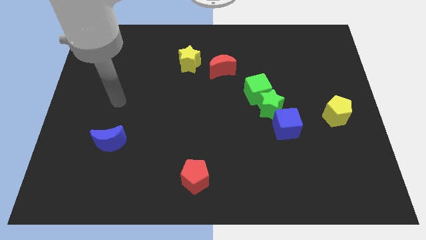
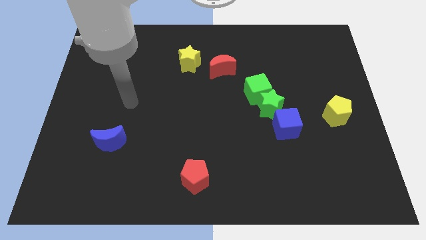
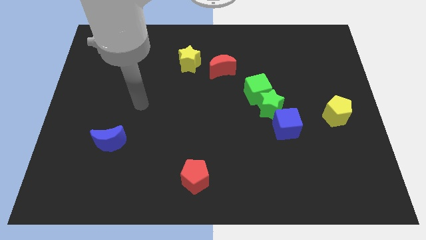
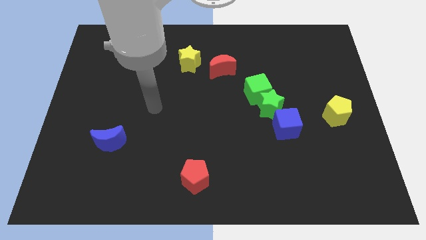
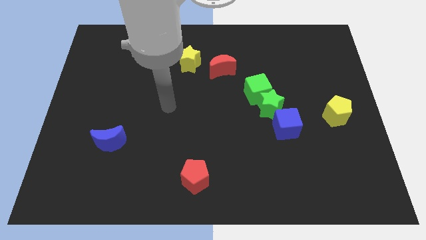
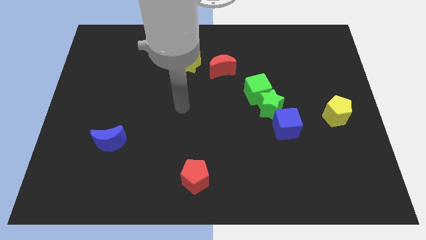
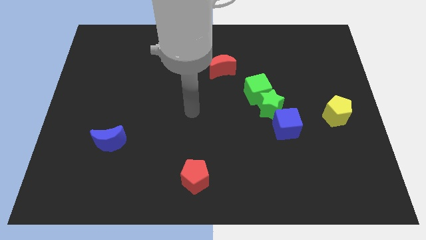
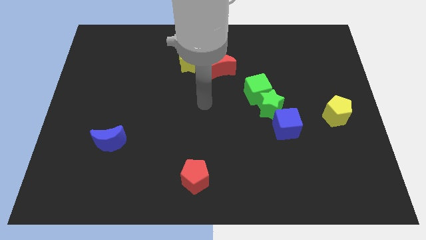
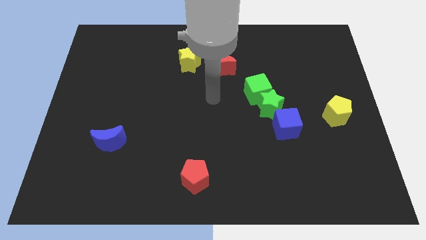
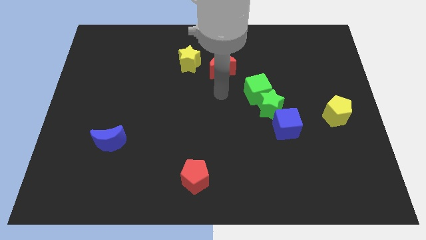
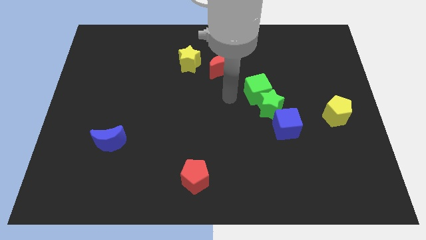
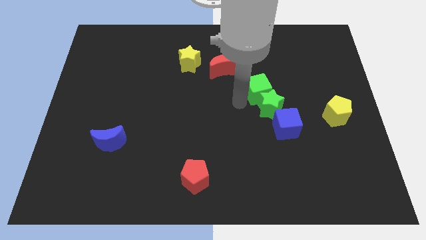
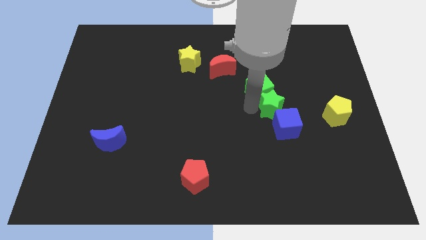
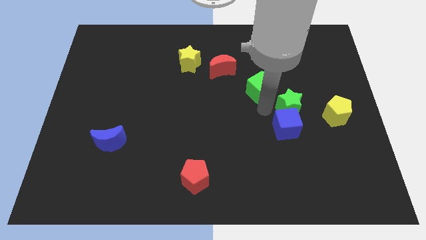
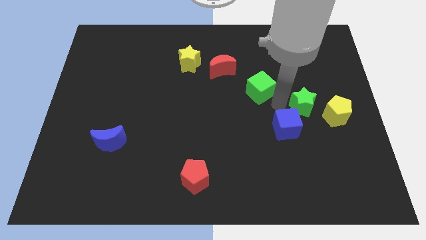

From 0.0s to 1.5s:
pull the green cube apart from the green star

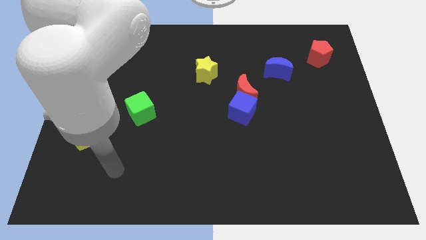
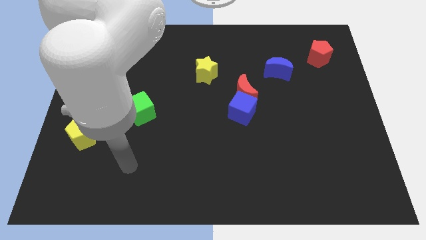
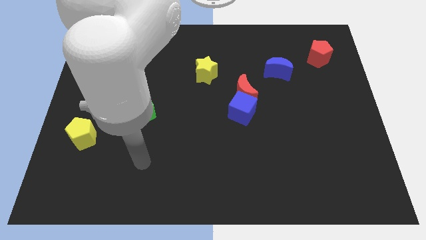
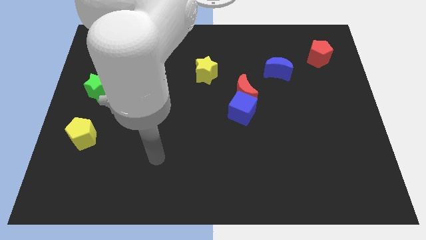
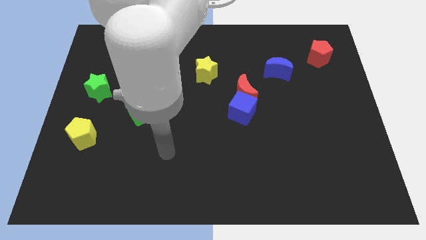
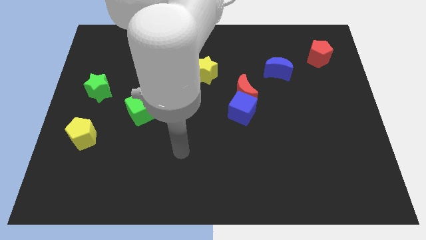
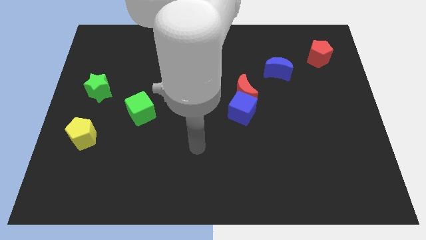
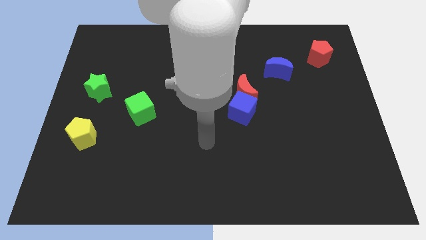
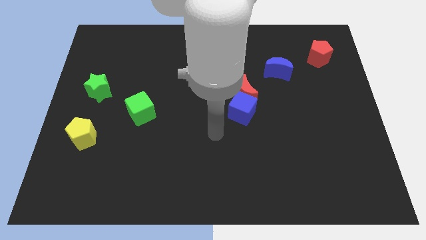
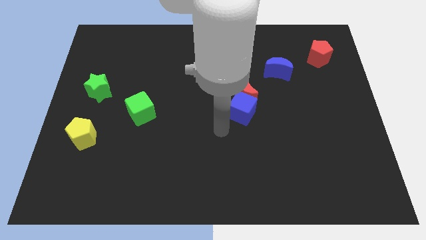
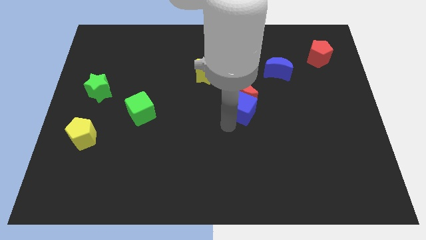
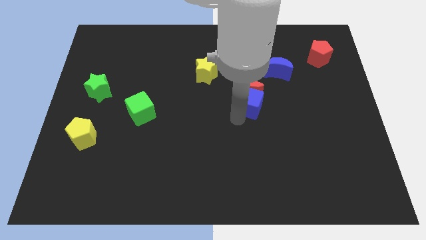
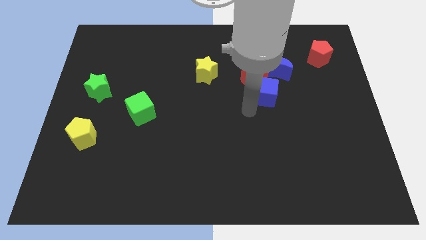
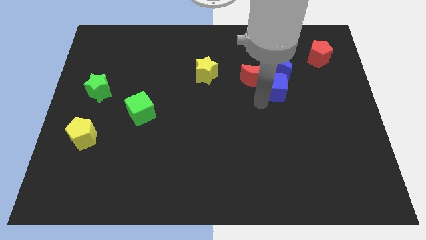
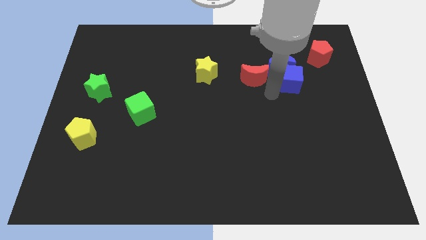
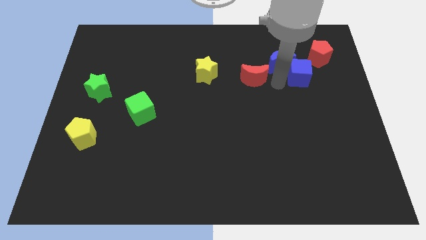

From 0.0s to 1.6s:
move the red moon away from the blue cube

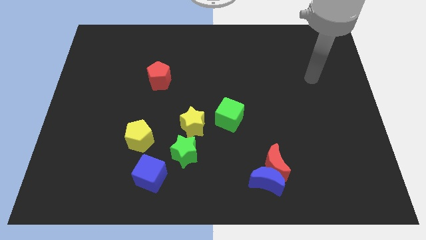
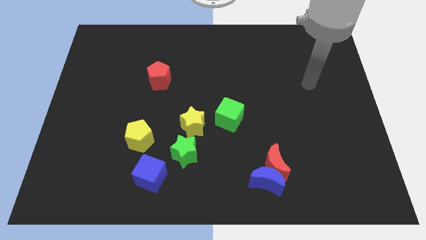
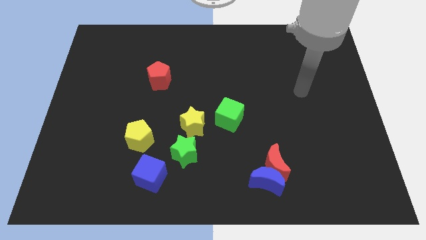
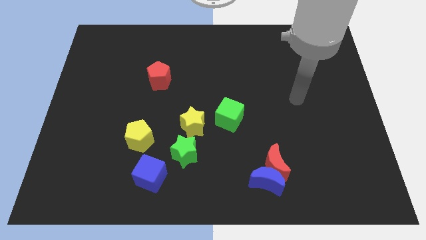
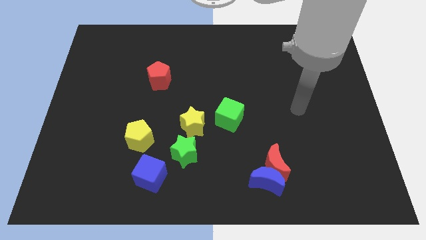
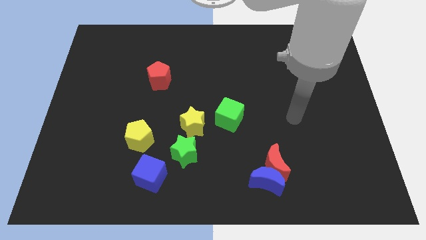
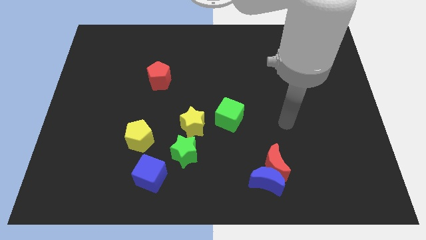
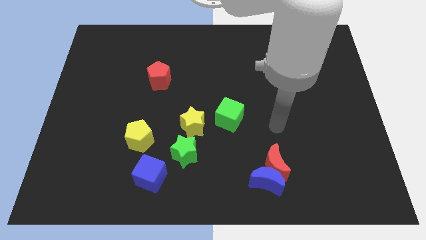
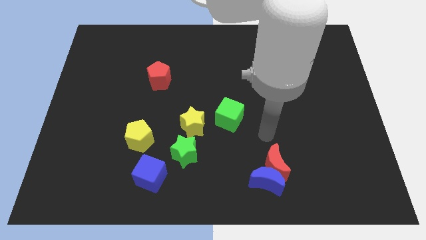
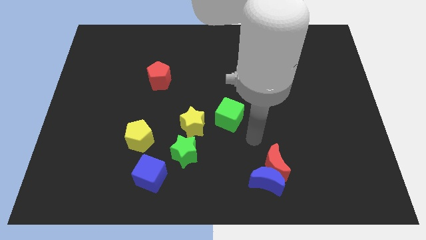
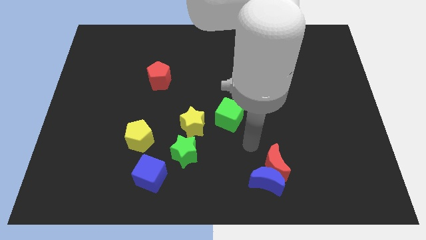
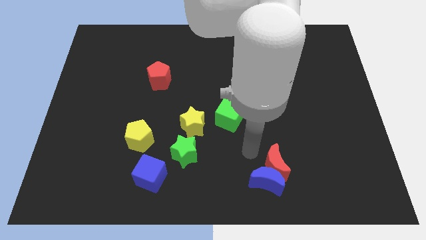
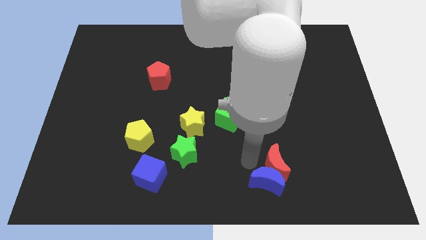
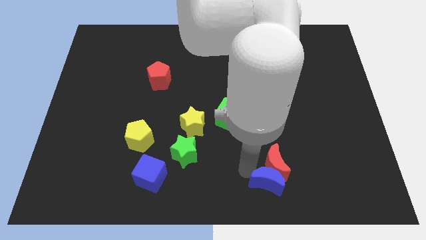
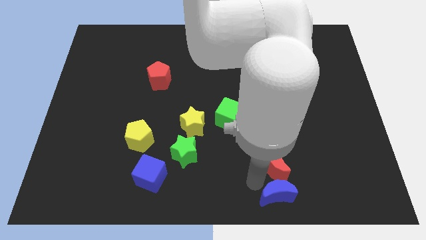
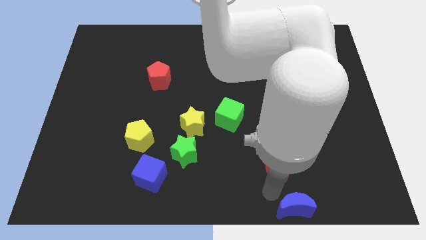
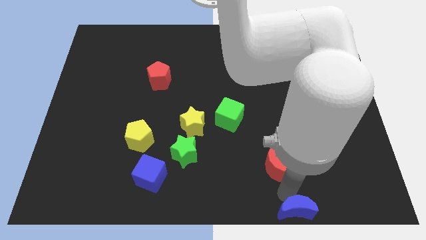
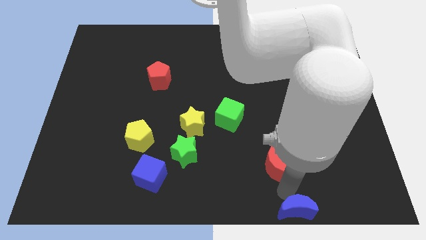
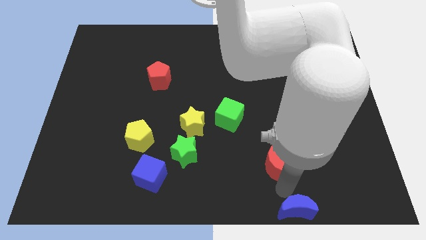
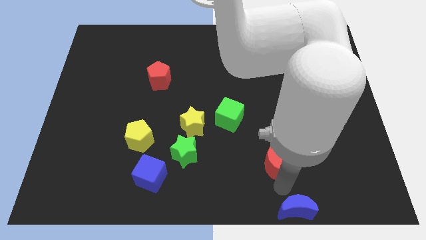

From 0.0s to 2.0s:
separate the red moon from the blue moon

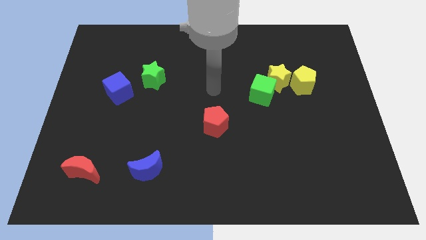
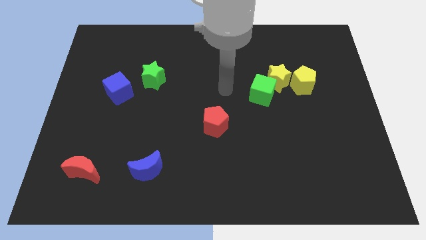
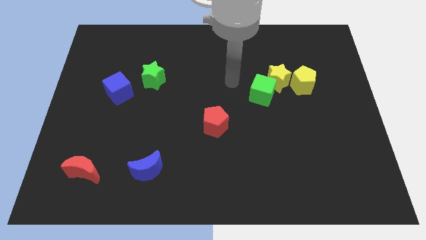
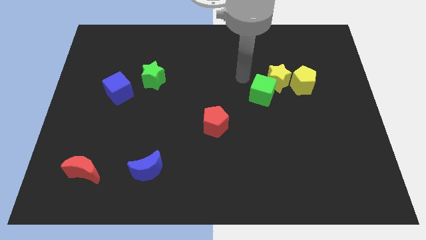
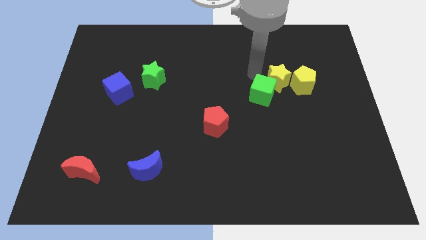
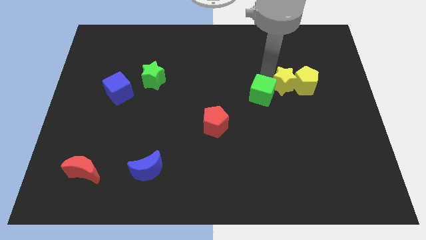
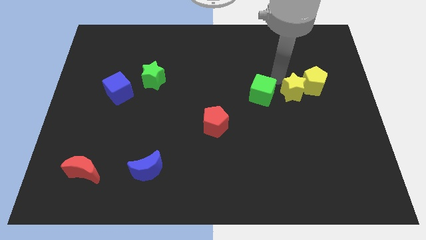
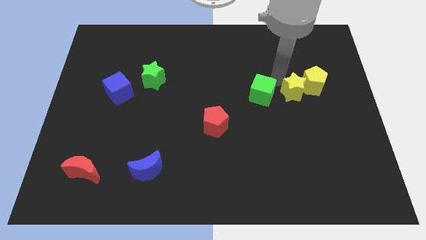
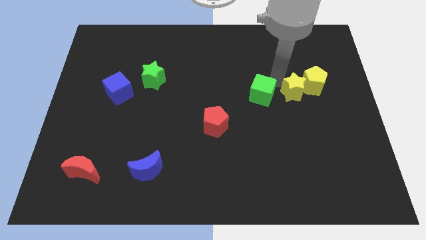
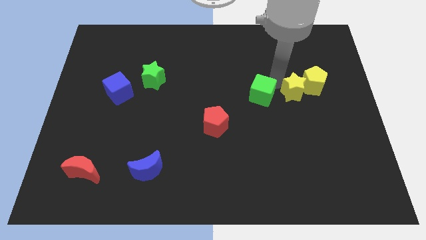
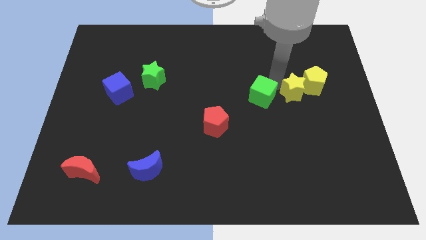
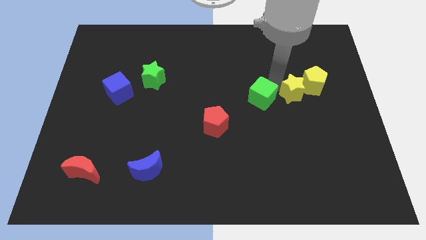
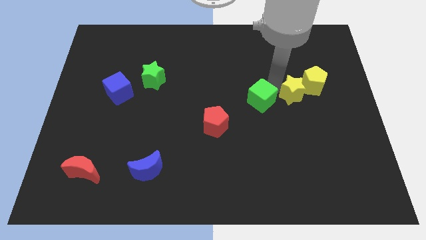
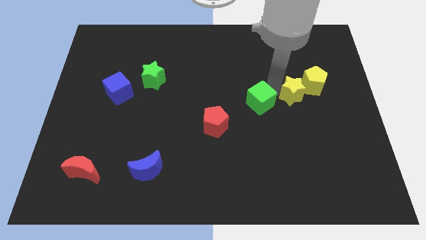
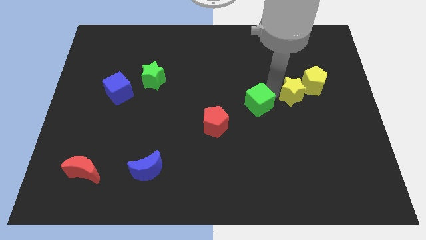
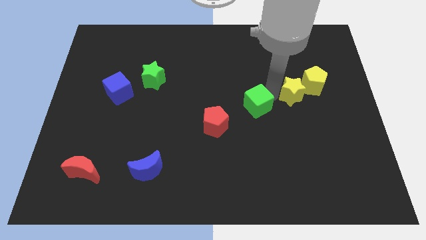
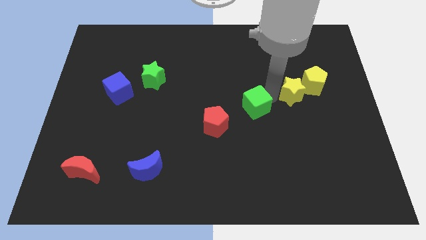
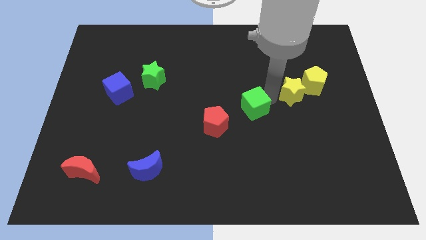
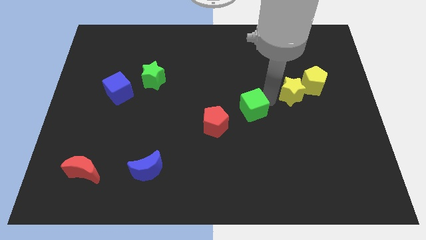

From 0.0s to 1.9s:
pull the green cube apart from the yellow star

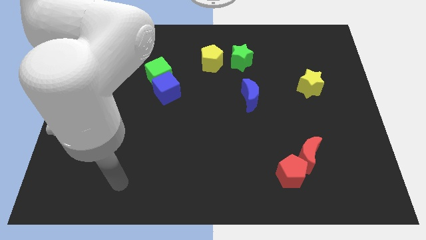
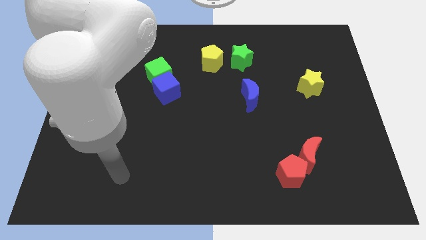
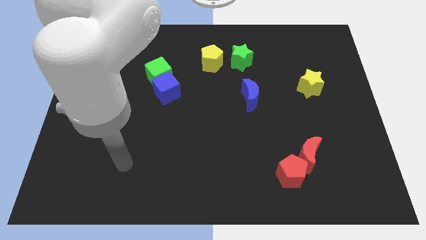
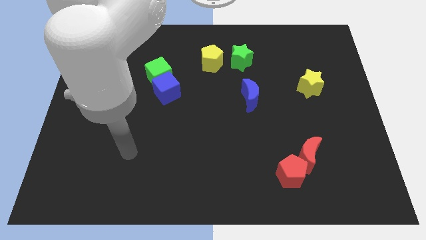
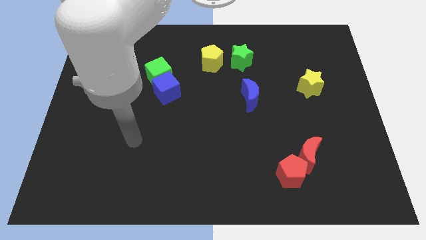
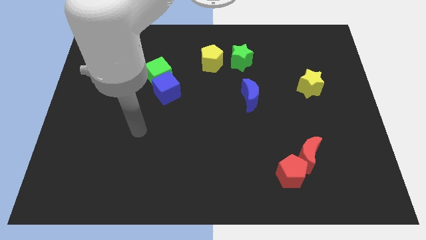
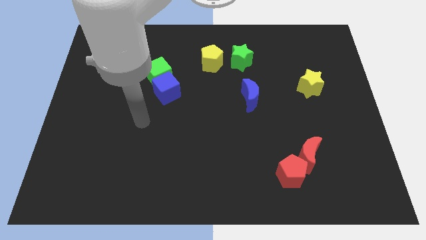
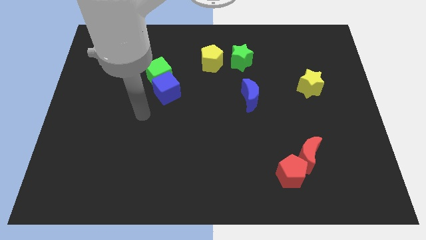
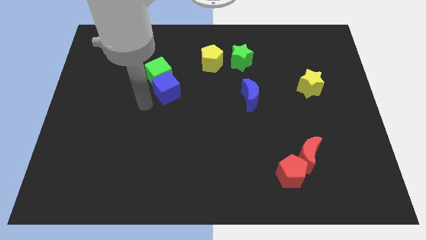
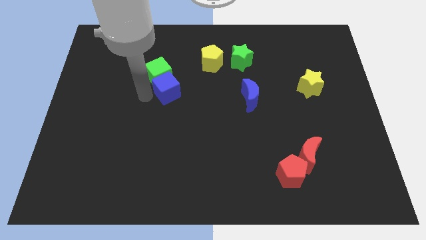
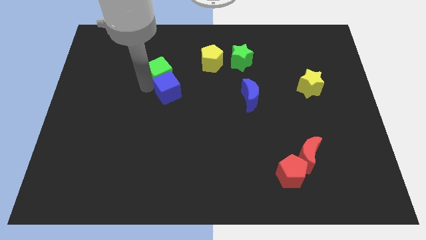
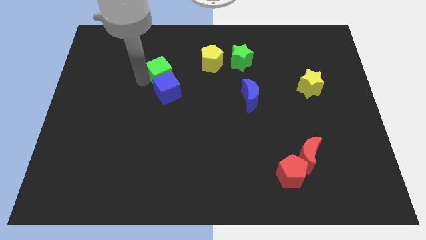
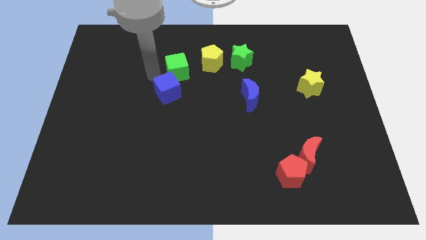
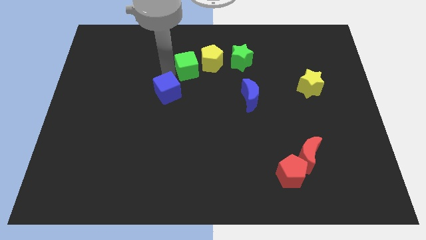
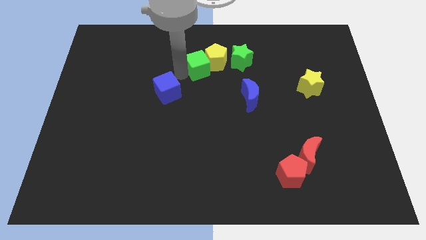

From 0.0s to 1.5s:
separate the blue cube from the green cube

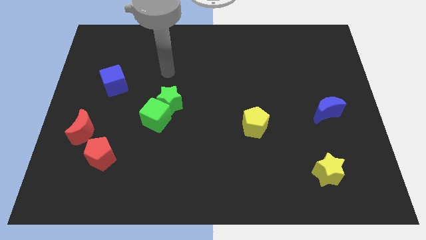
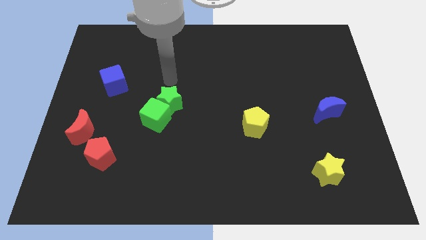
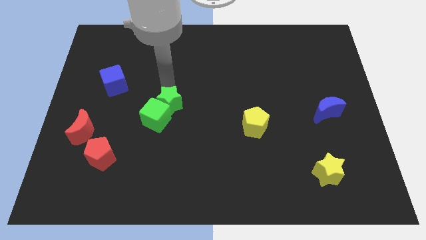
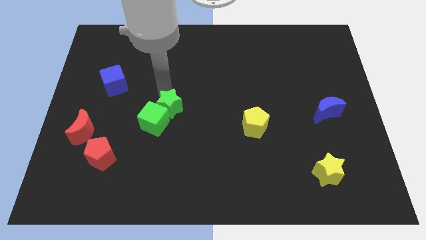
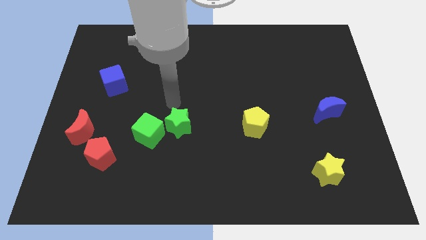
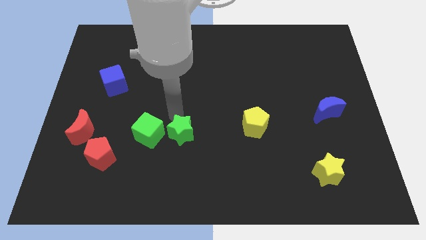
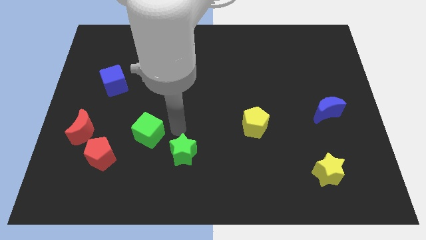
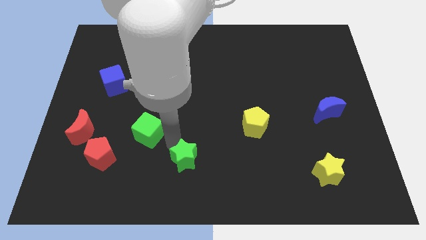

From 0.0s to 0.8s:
separate the green cube from the green star
